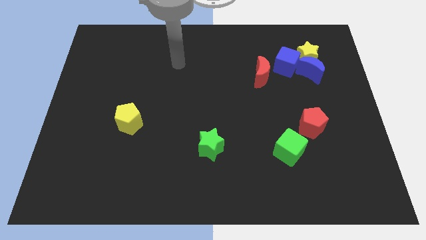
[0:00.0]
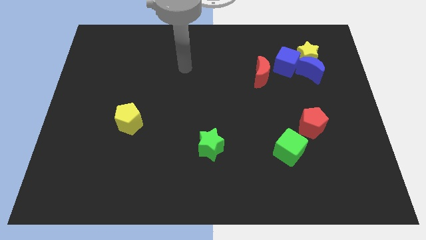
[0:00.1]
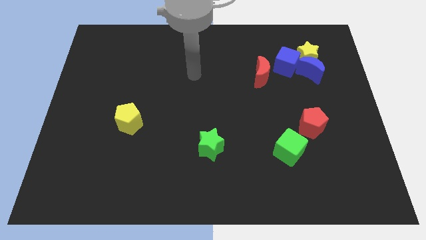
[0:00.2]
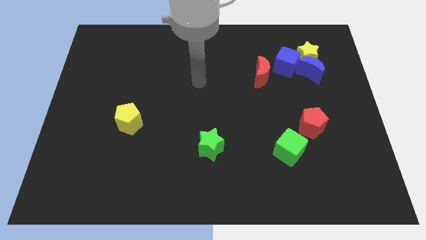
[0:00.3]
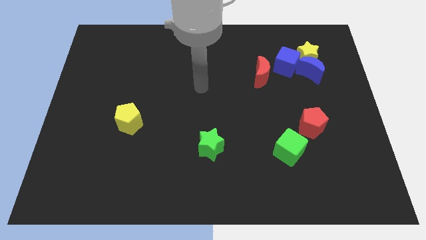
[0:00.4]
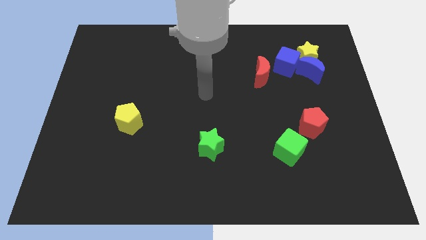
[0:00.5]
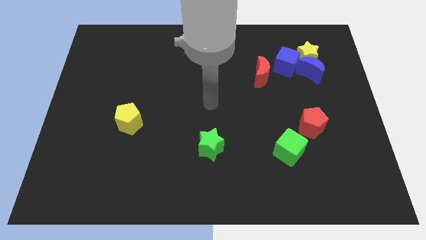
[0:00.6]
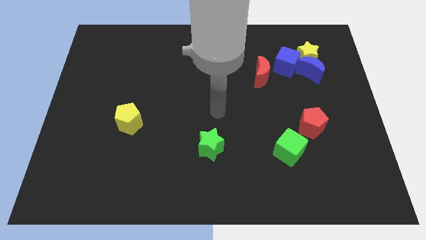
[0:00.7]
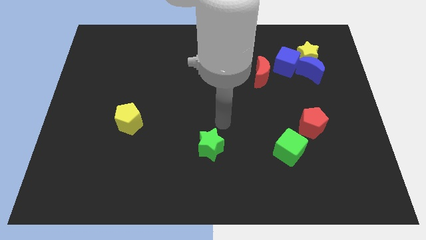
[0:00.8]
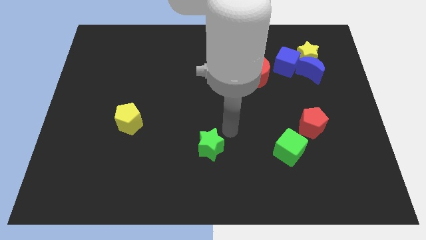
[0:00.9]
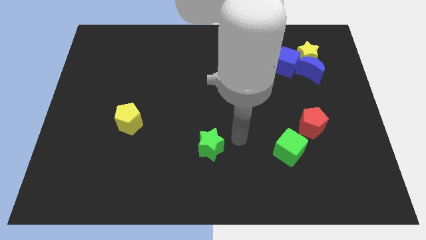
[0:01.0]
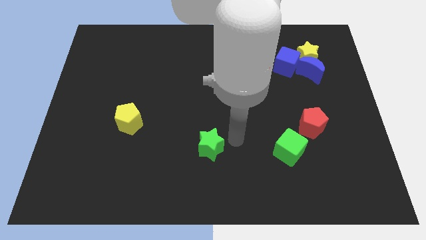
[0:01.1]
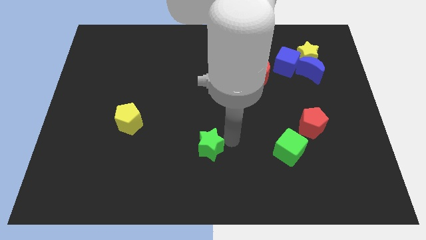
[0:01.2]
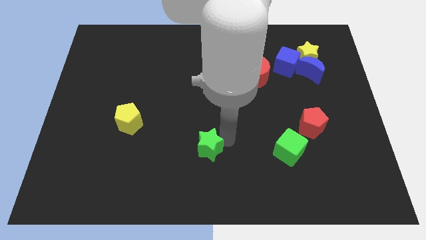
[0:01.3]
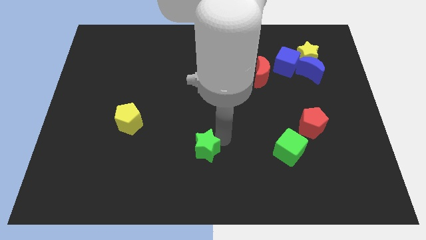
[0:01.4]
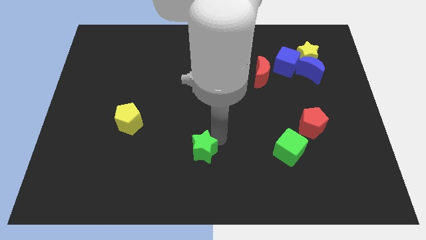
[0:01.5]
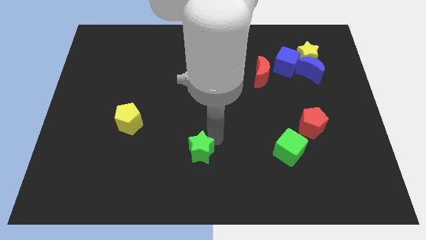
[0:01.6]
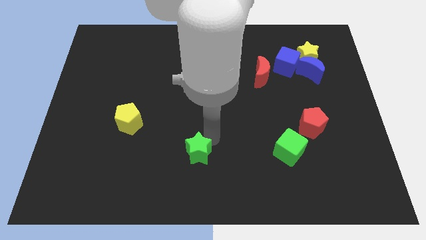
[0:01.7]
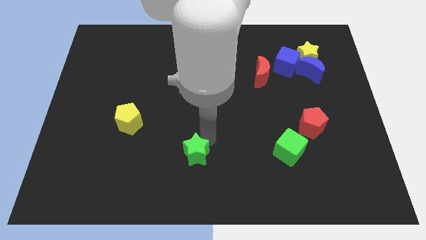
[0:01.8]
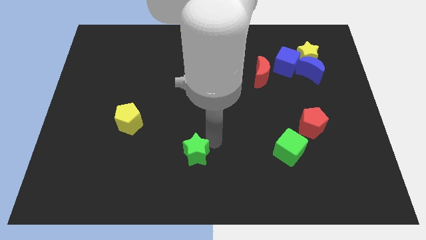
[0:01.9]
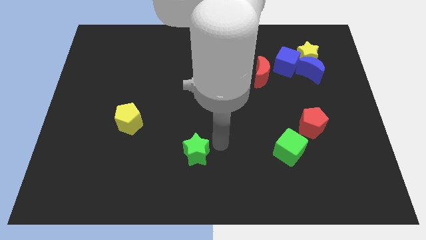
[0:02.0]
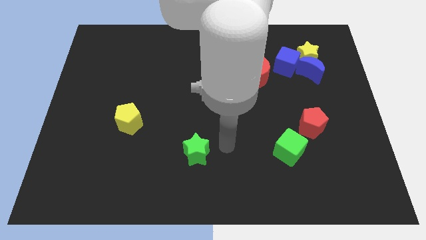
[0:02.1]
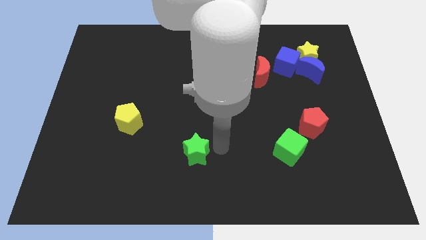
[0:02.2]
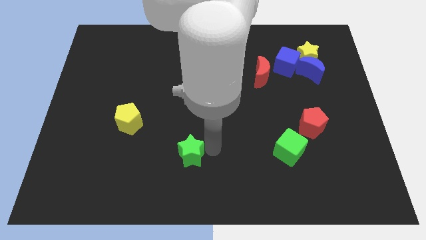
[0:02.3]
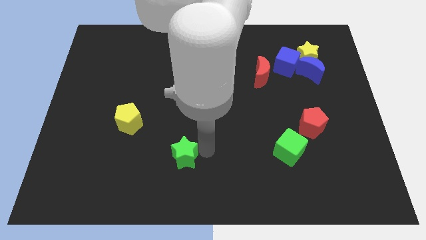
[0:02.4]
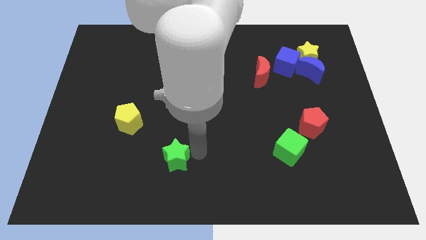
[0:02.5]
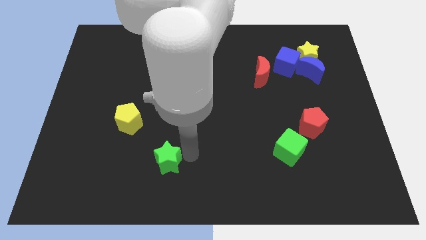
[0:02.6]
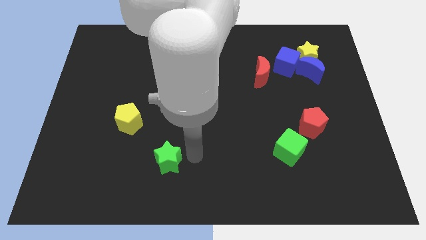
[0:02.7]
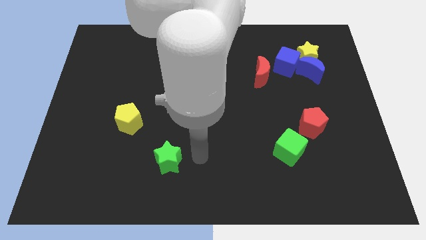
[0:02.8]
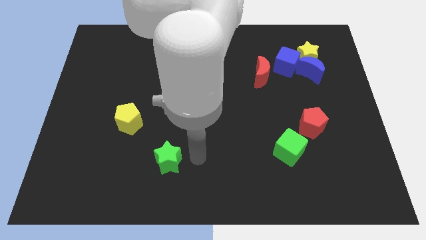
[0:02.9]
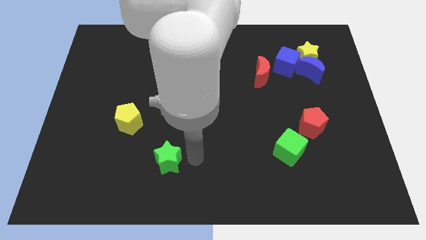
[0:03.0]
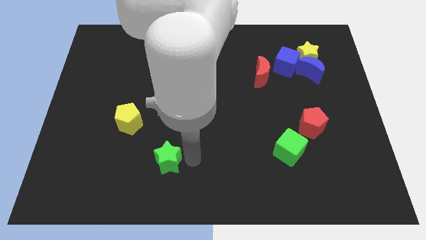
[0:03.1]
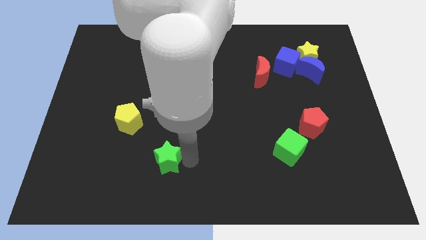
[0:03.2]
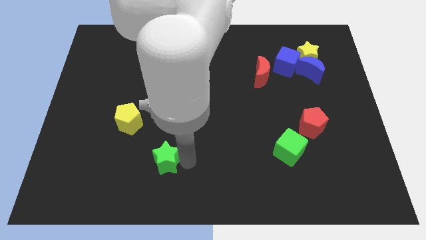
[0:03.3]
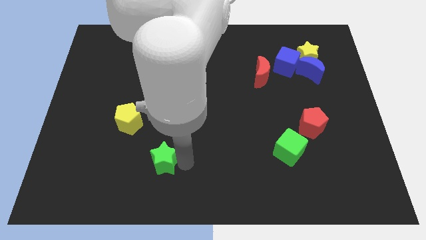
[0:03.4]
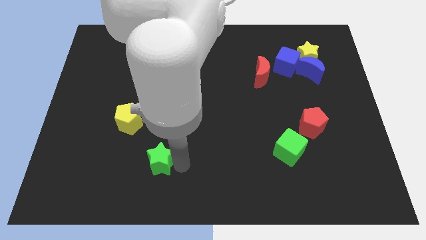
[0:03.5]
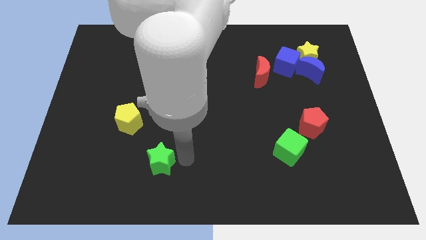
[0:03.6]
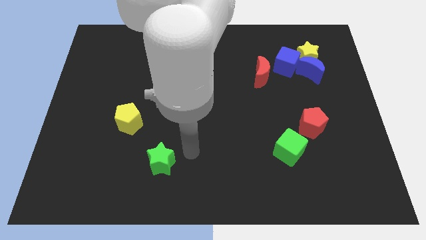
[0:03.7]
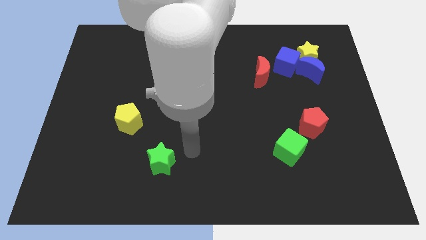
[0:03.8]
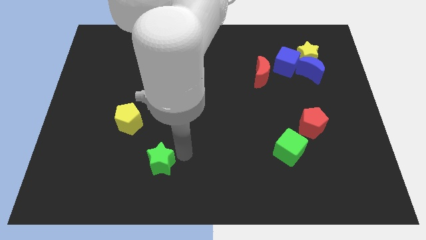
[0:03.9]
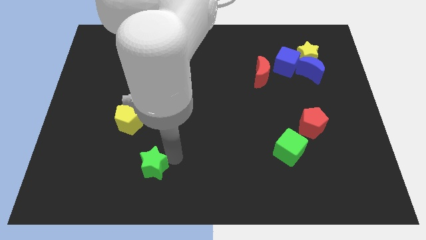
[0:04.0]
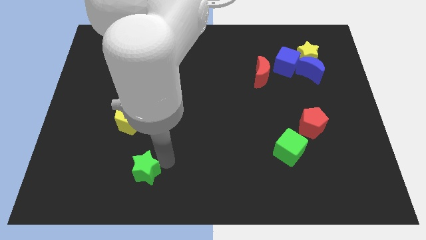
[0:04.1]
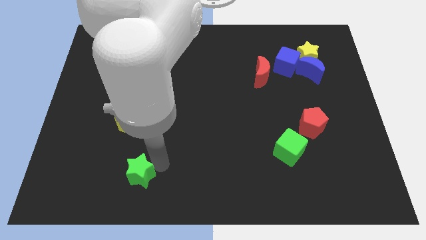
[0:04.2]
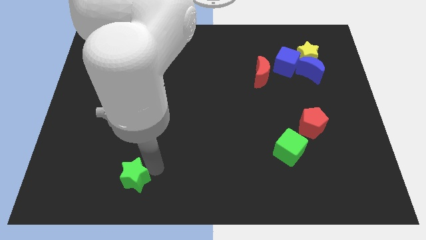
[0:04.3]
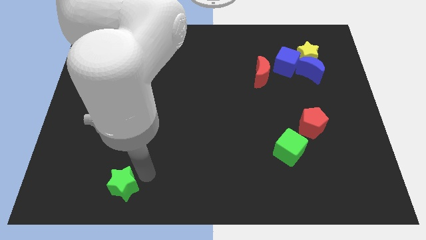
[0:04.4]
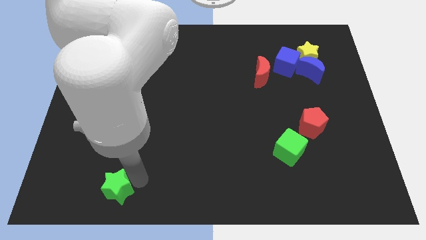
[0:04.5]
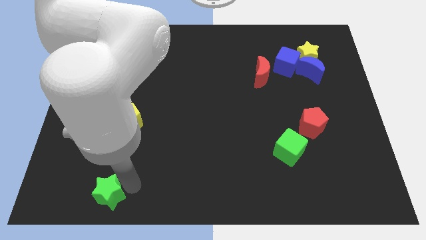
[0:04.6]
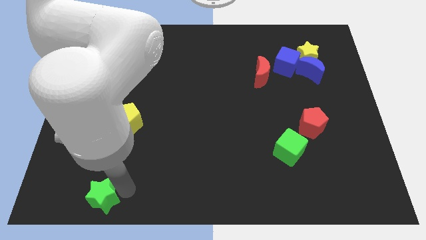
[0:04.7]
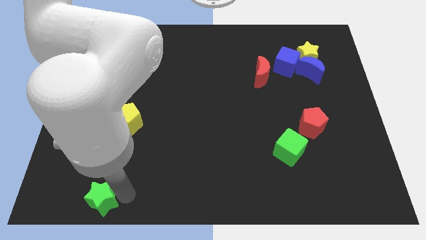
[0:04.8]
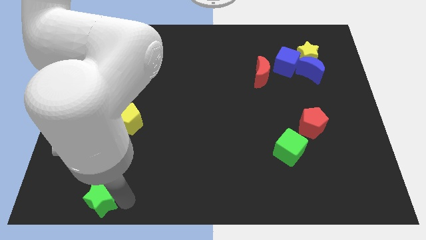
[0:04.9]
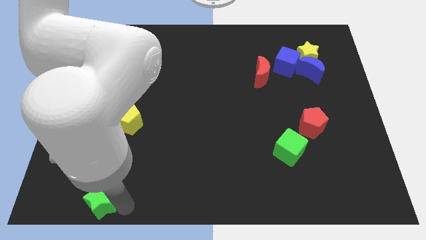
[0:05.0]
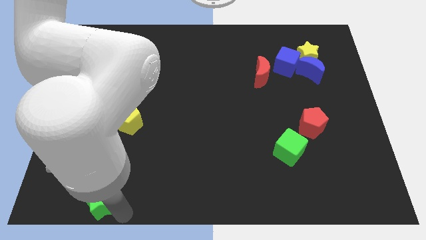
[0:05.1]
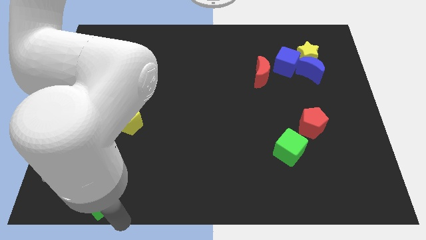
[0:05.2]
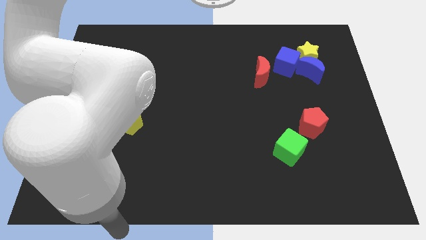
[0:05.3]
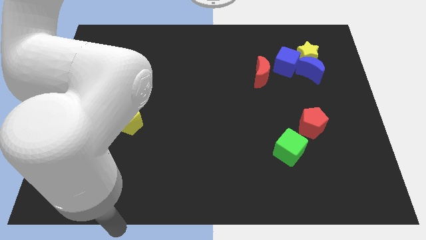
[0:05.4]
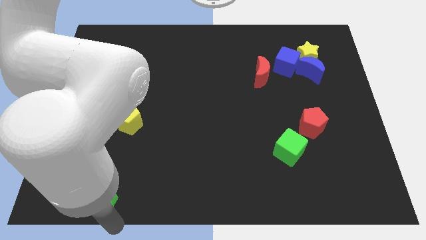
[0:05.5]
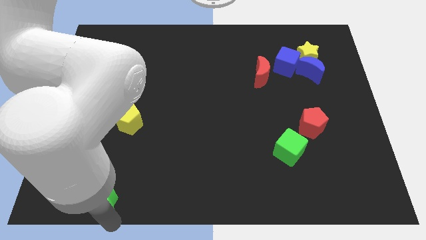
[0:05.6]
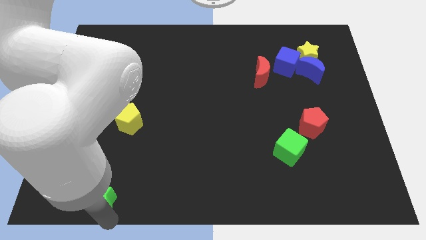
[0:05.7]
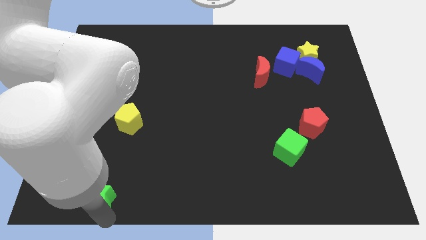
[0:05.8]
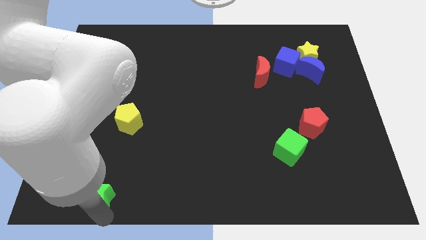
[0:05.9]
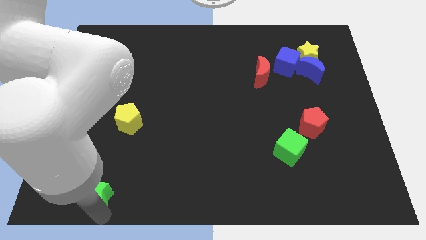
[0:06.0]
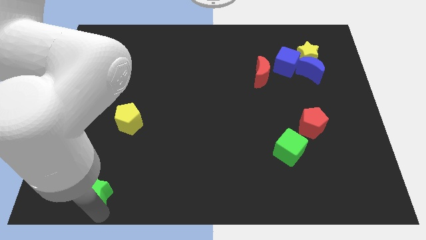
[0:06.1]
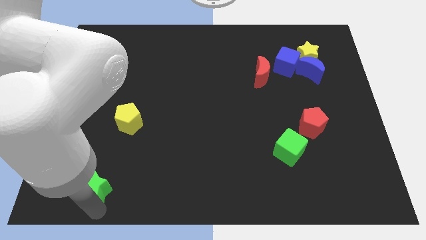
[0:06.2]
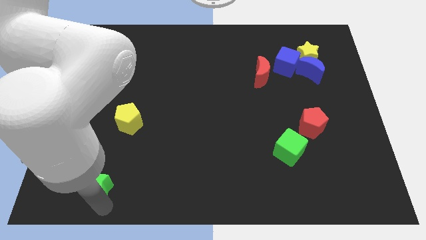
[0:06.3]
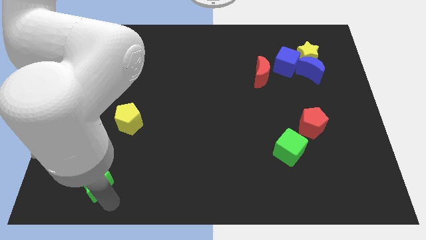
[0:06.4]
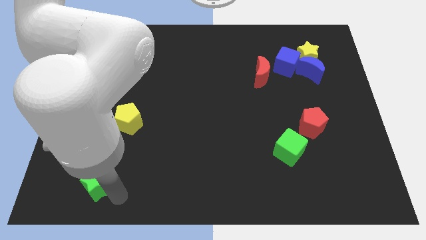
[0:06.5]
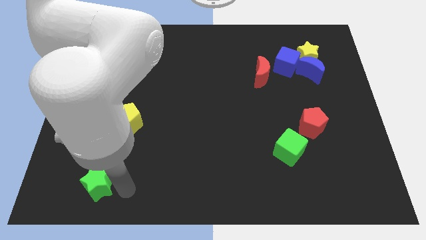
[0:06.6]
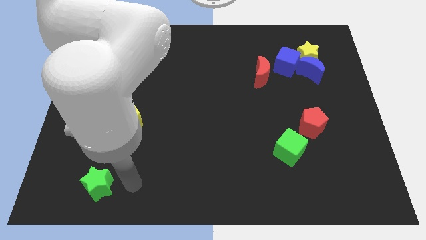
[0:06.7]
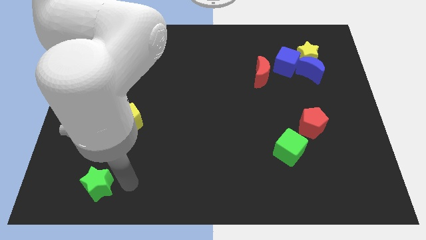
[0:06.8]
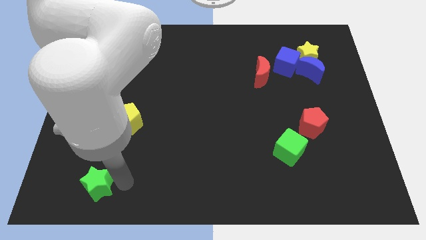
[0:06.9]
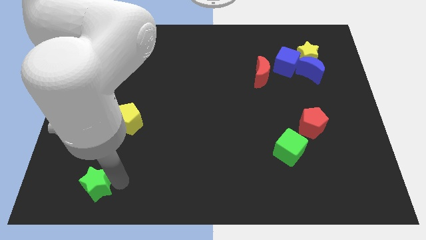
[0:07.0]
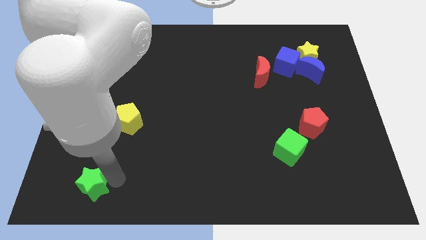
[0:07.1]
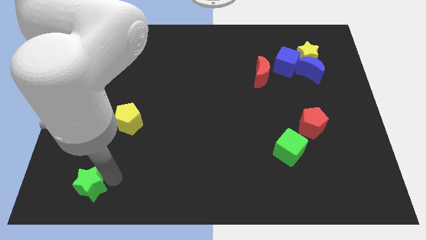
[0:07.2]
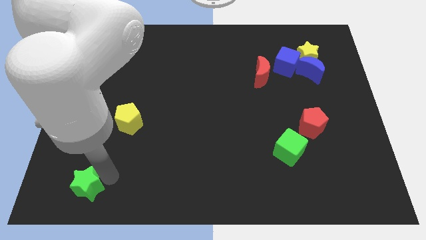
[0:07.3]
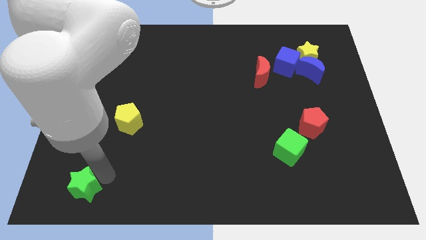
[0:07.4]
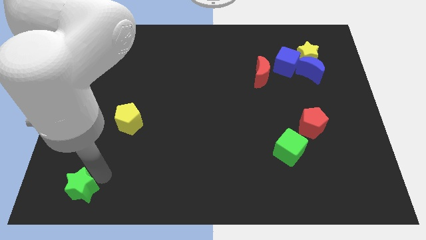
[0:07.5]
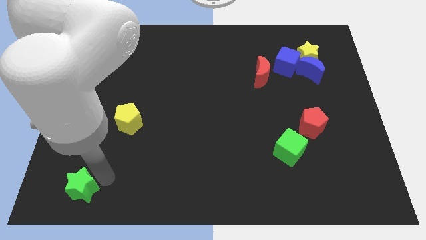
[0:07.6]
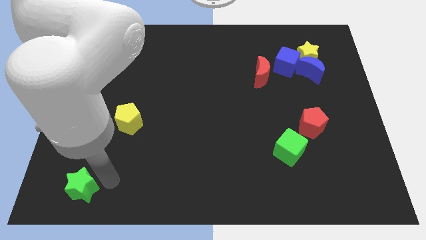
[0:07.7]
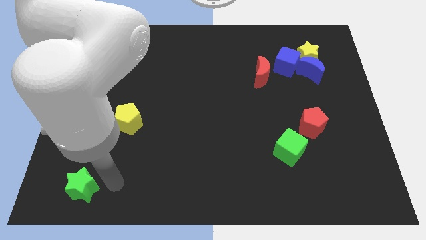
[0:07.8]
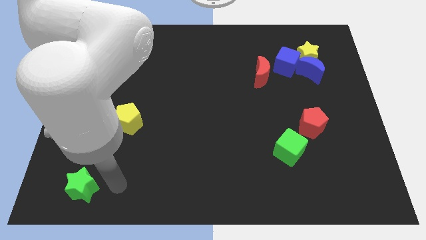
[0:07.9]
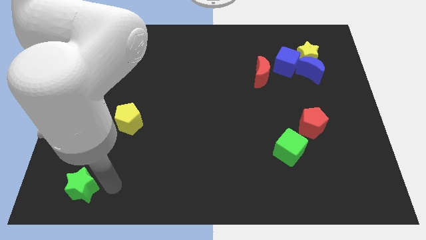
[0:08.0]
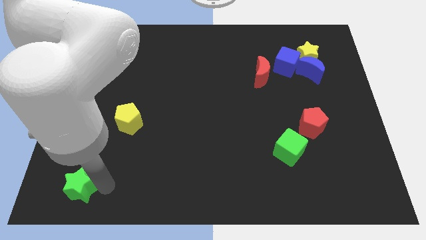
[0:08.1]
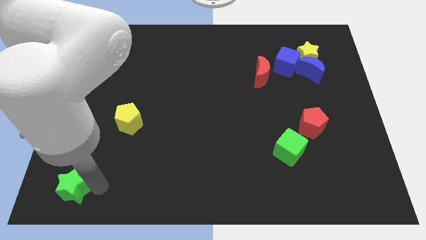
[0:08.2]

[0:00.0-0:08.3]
slide the green star to the lower left corner
